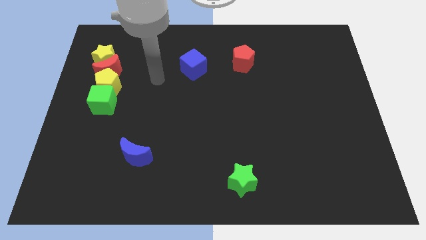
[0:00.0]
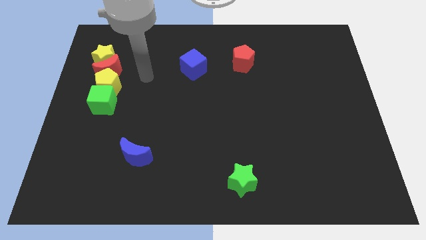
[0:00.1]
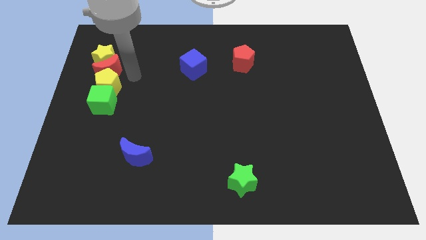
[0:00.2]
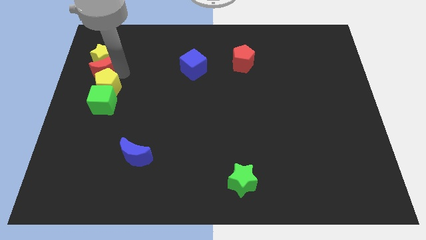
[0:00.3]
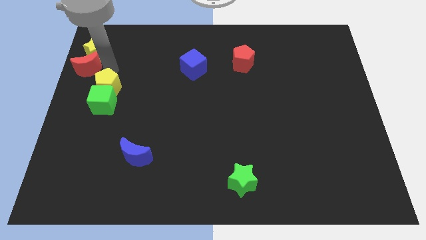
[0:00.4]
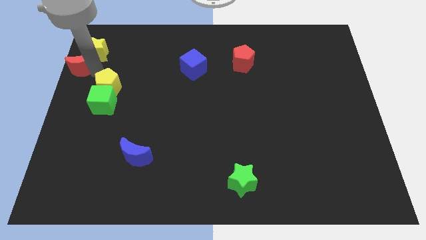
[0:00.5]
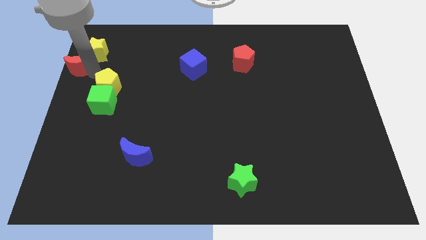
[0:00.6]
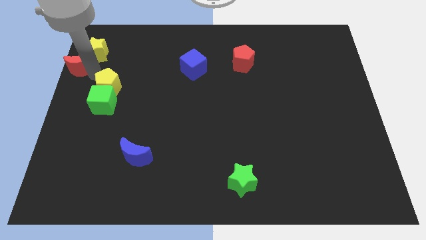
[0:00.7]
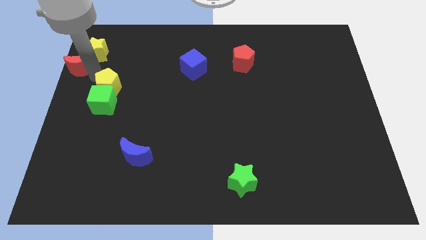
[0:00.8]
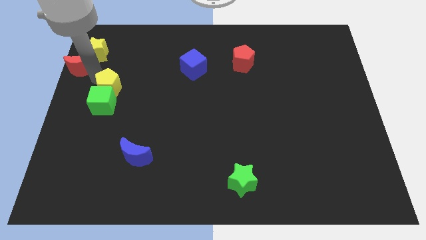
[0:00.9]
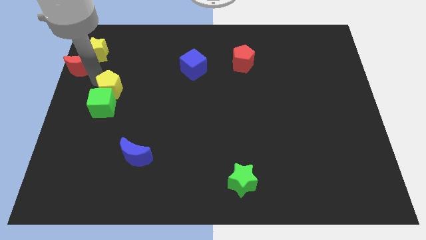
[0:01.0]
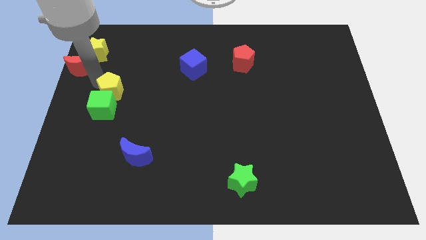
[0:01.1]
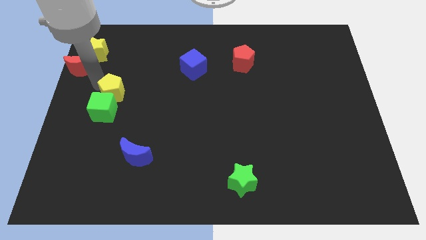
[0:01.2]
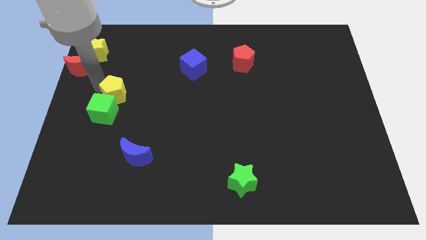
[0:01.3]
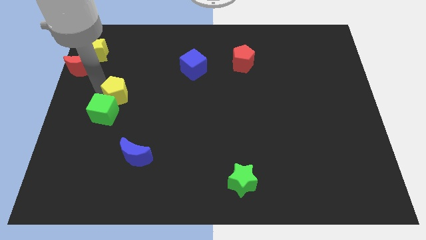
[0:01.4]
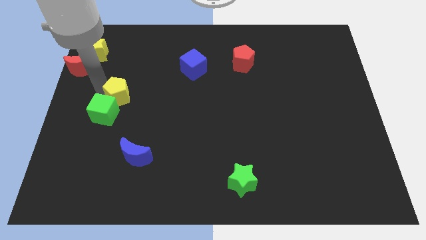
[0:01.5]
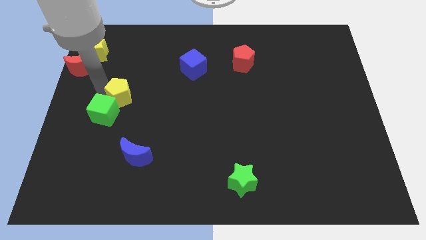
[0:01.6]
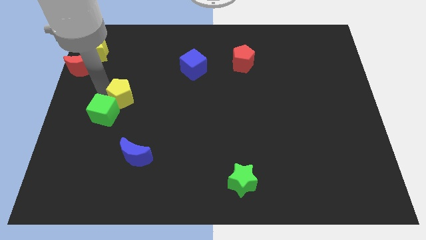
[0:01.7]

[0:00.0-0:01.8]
separate the yellow pentagon from the red moon, green cube, and yellow star

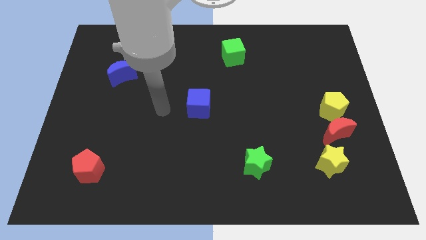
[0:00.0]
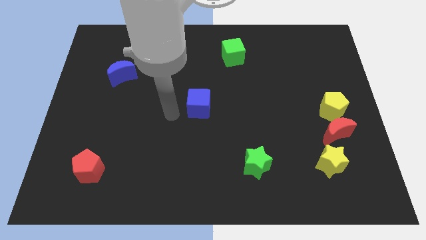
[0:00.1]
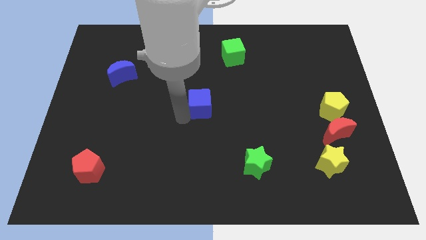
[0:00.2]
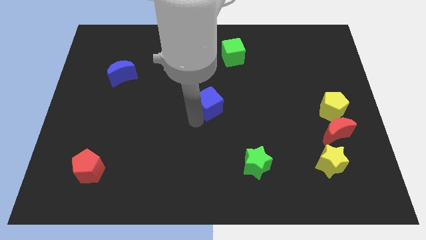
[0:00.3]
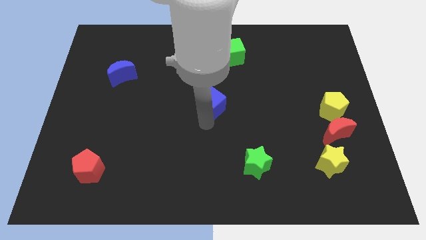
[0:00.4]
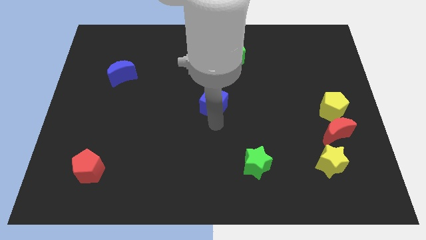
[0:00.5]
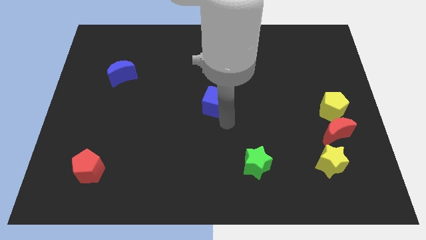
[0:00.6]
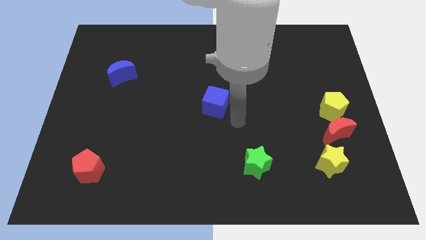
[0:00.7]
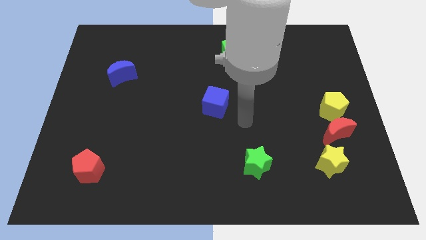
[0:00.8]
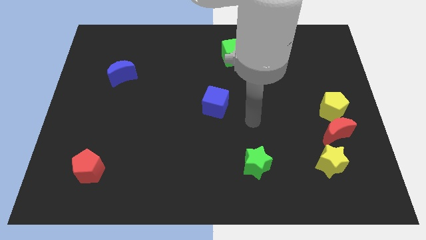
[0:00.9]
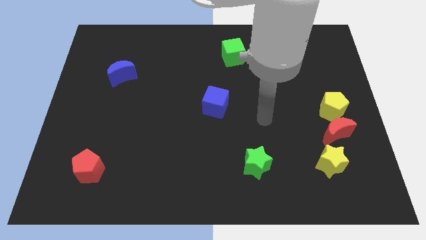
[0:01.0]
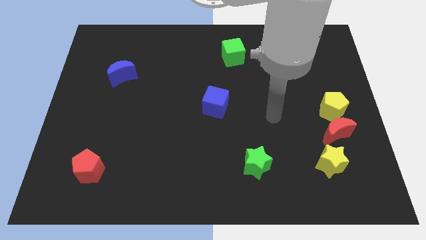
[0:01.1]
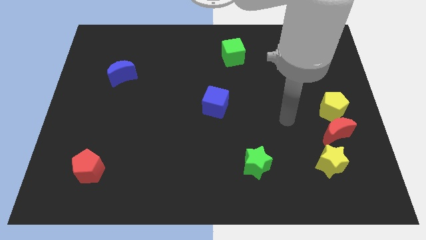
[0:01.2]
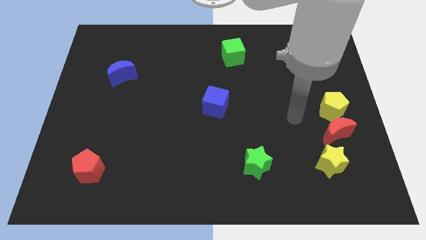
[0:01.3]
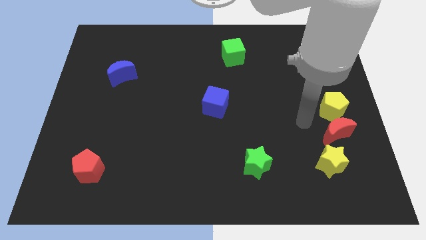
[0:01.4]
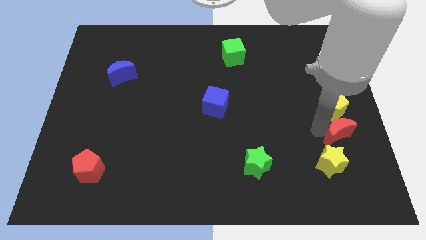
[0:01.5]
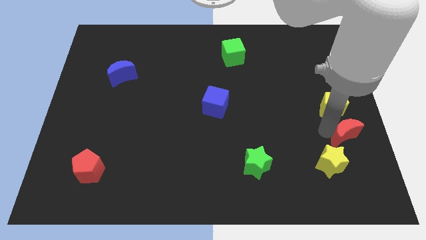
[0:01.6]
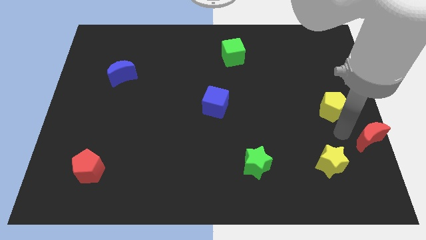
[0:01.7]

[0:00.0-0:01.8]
move the yellow pentagon away from the red moon

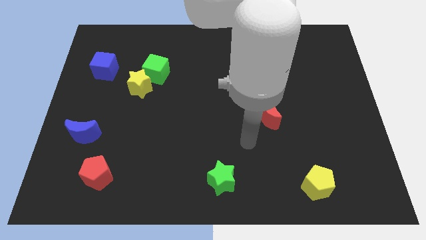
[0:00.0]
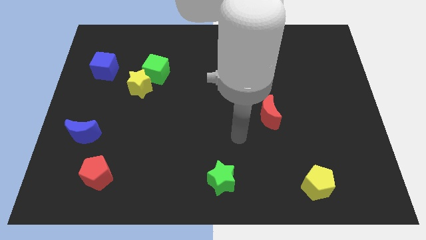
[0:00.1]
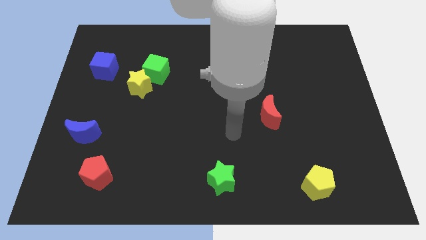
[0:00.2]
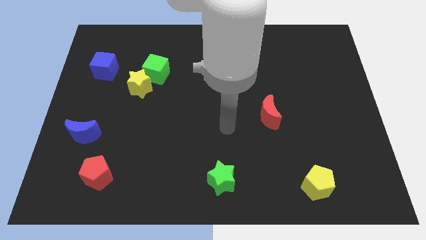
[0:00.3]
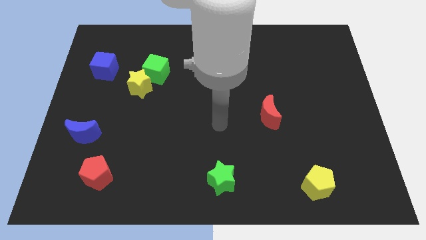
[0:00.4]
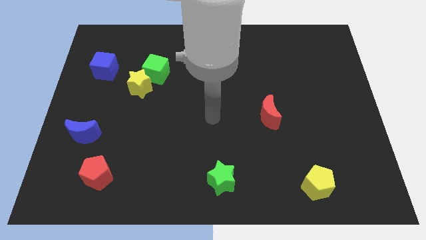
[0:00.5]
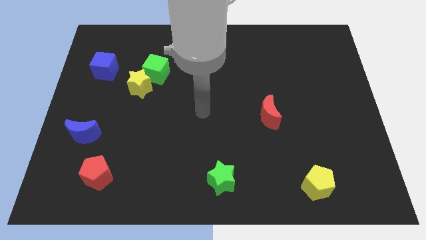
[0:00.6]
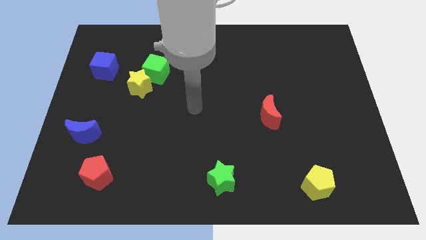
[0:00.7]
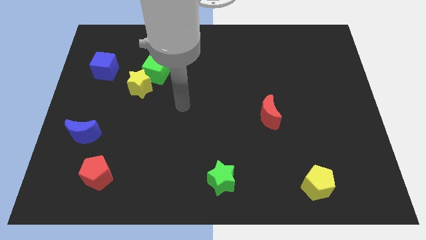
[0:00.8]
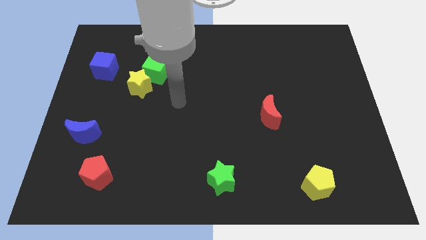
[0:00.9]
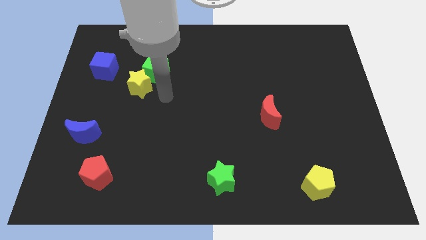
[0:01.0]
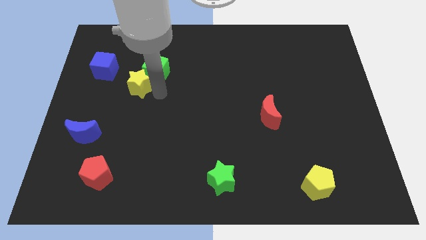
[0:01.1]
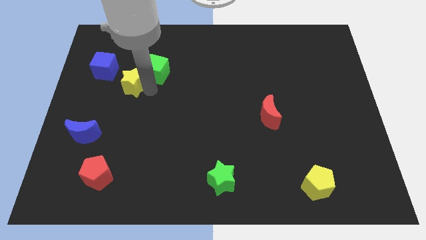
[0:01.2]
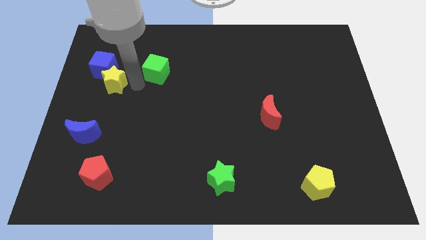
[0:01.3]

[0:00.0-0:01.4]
separate the green cube from the yellow star

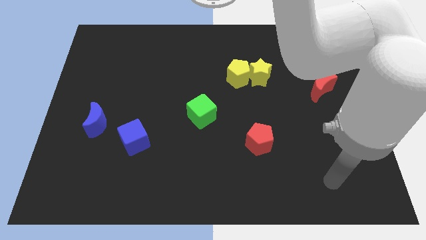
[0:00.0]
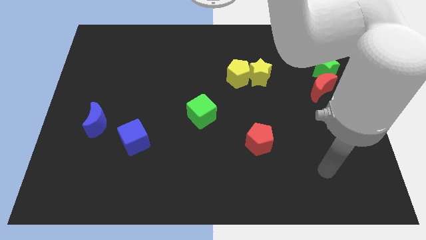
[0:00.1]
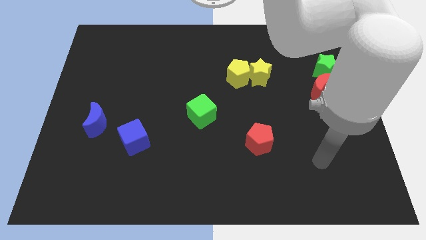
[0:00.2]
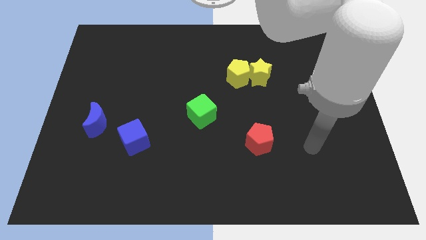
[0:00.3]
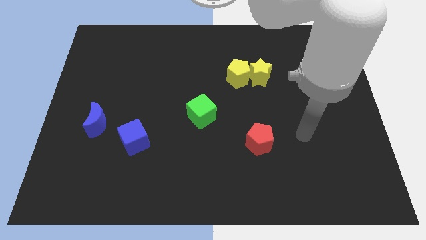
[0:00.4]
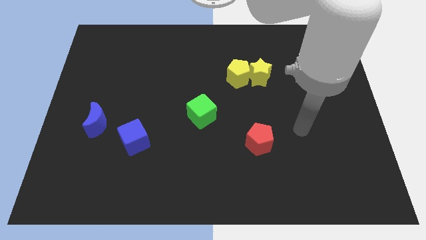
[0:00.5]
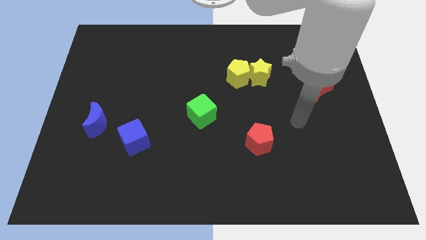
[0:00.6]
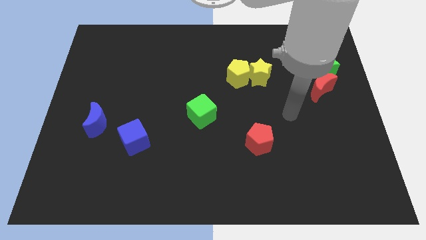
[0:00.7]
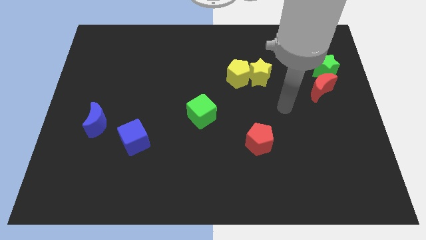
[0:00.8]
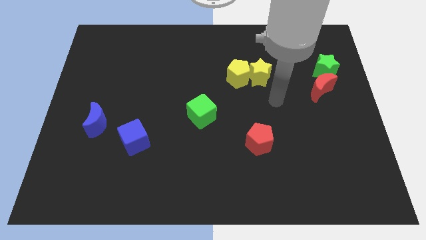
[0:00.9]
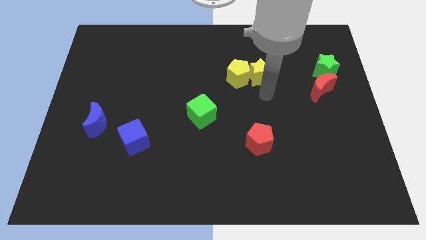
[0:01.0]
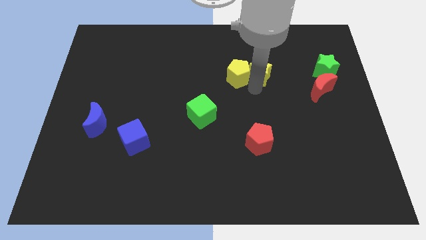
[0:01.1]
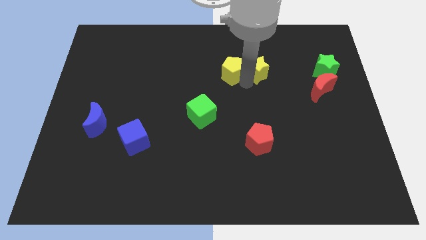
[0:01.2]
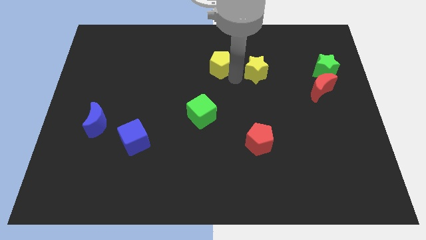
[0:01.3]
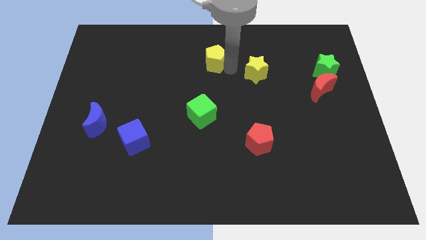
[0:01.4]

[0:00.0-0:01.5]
move the yellow star away from the yellow pentagon

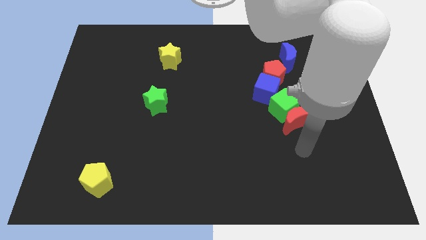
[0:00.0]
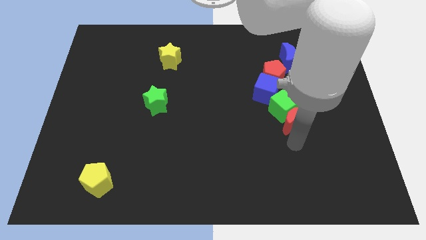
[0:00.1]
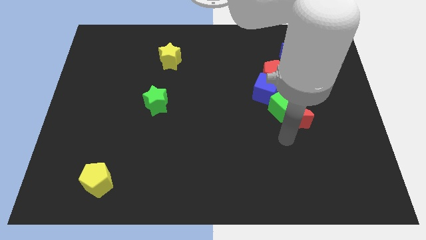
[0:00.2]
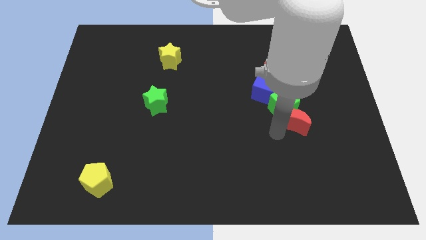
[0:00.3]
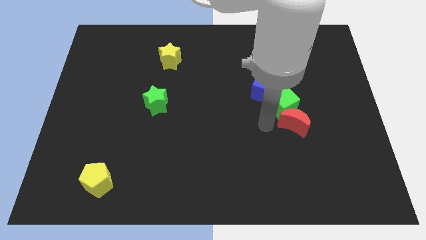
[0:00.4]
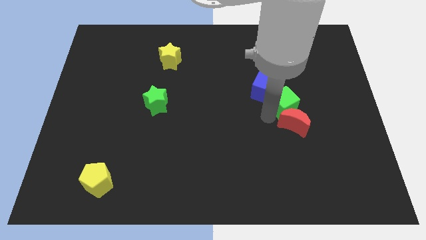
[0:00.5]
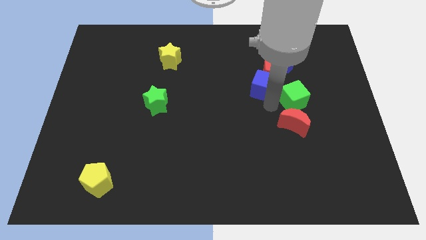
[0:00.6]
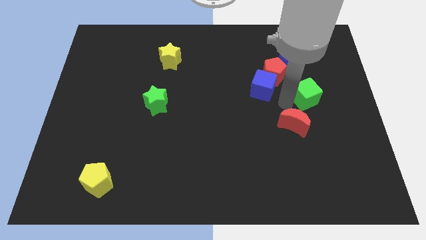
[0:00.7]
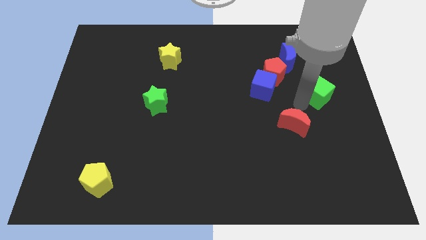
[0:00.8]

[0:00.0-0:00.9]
move the red moon away from the green cube

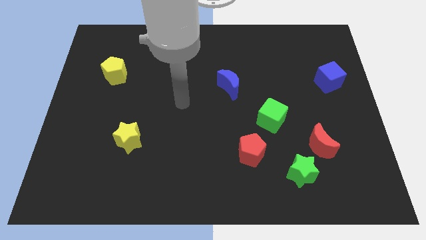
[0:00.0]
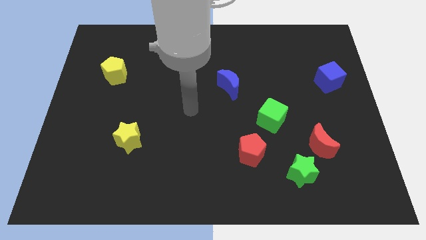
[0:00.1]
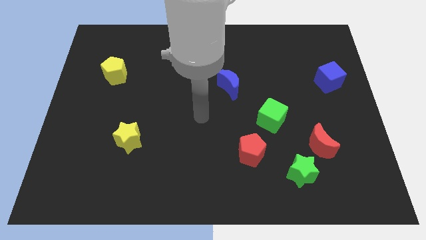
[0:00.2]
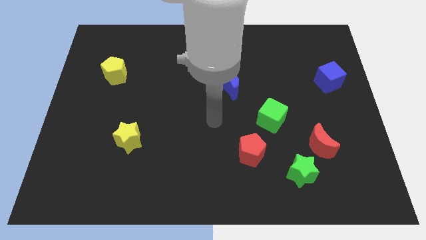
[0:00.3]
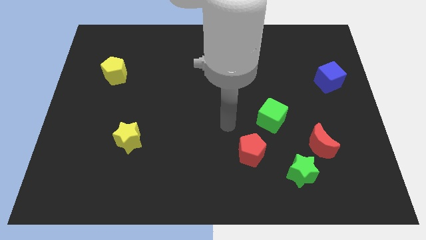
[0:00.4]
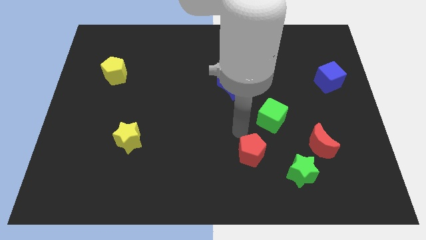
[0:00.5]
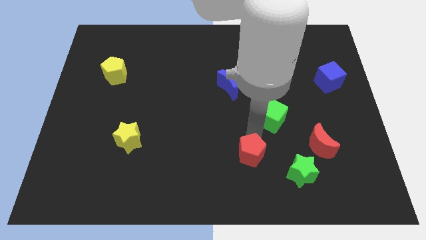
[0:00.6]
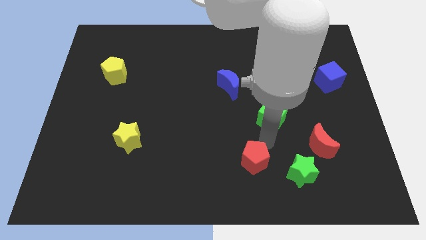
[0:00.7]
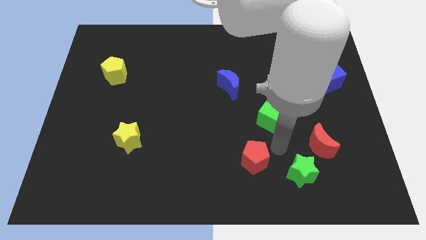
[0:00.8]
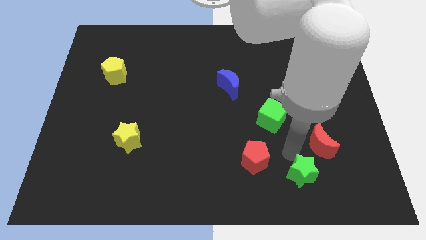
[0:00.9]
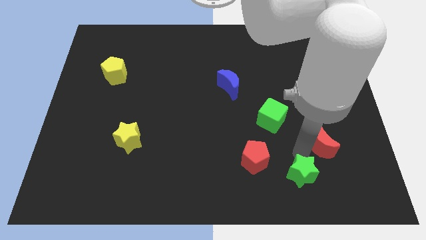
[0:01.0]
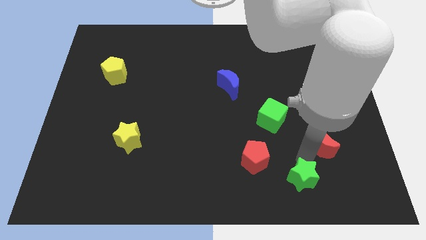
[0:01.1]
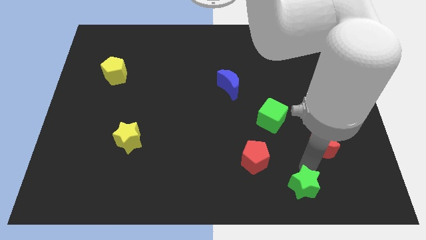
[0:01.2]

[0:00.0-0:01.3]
pull the red moon apart from the green star

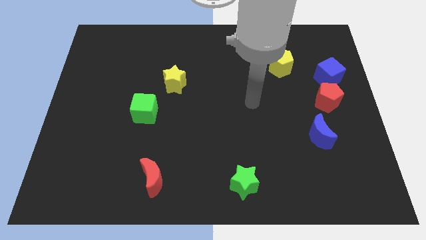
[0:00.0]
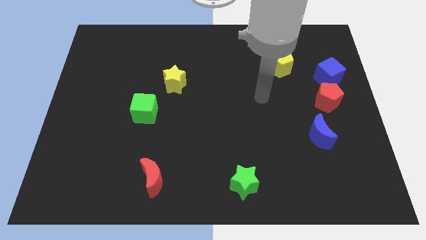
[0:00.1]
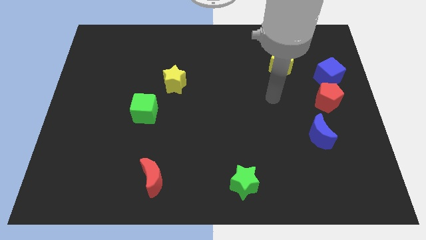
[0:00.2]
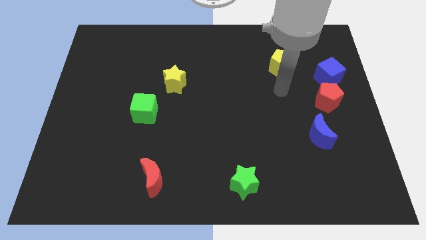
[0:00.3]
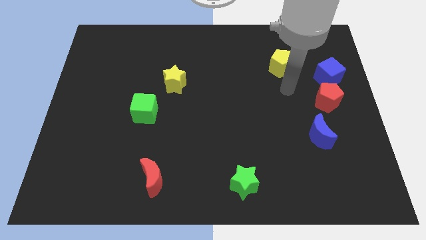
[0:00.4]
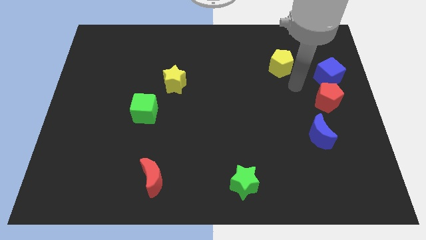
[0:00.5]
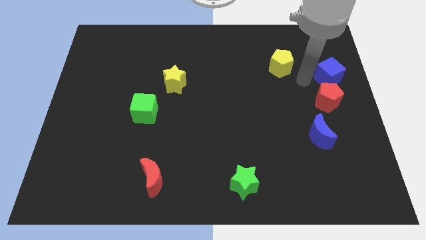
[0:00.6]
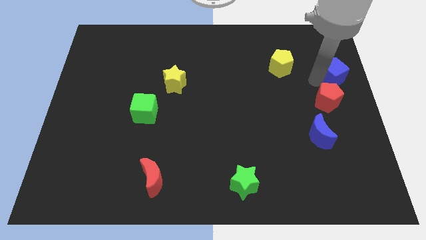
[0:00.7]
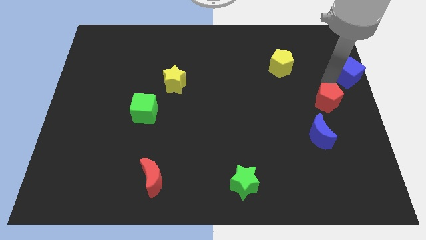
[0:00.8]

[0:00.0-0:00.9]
pull the red pentagon apart from the blue cube
